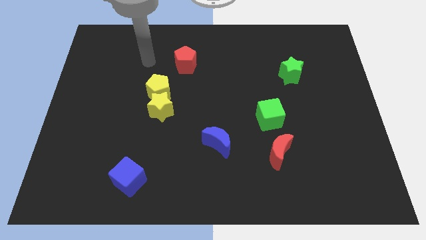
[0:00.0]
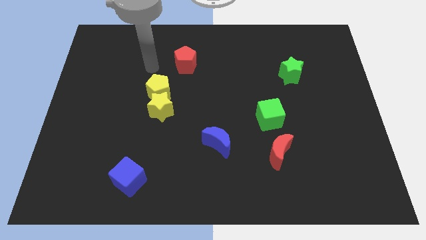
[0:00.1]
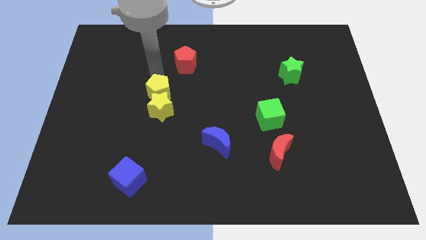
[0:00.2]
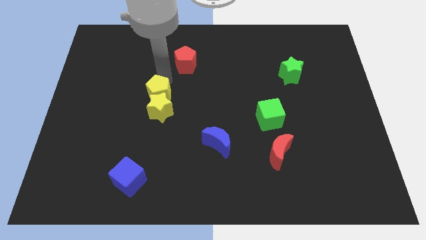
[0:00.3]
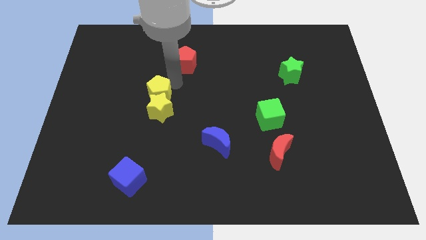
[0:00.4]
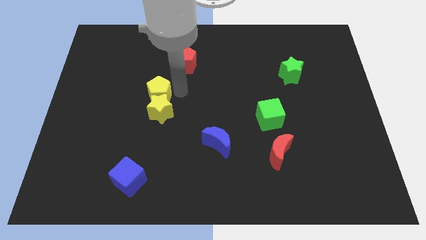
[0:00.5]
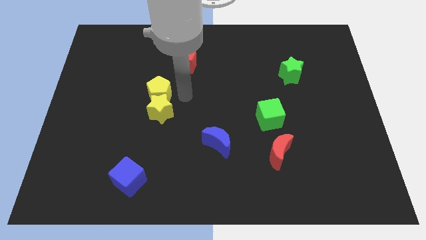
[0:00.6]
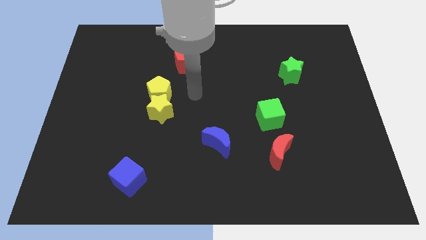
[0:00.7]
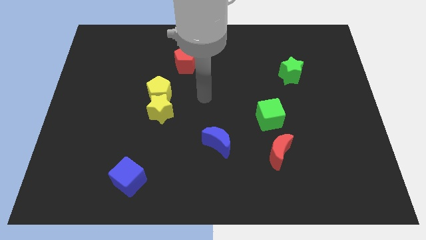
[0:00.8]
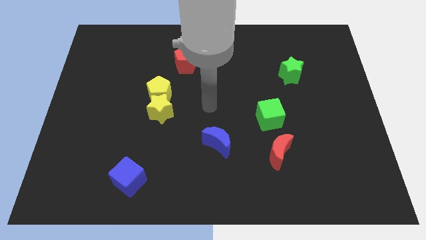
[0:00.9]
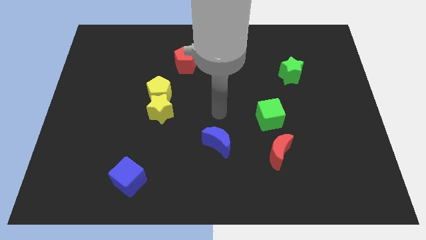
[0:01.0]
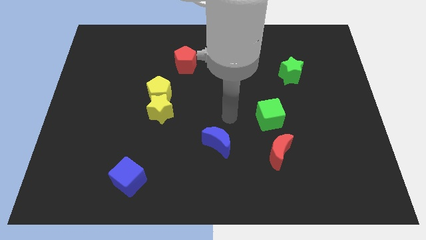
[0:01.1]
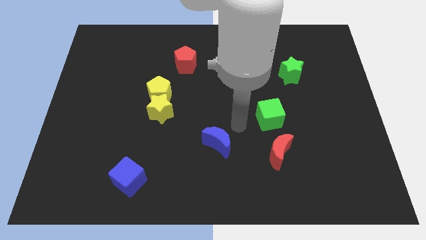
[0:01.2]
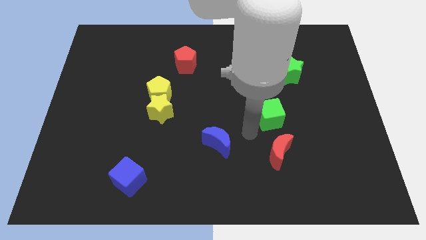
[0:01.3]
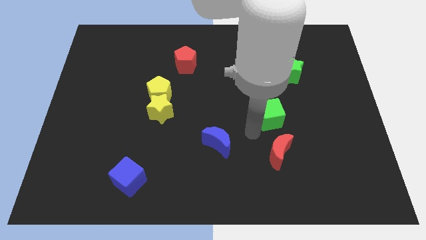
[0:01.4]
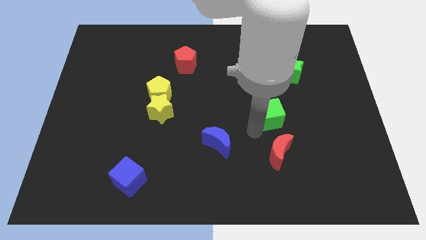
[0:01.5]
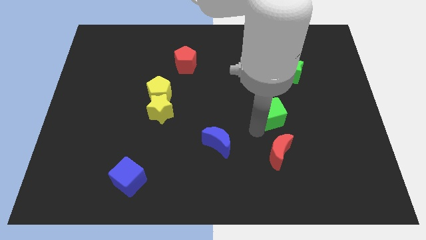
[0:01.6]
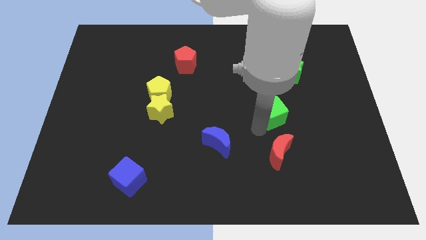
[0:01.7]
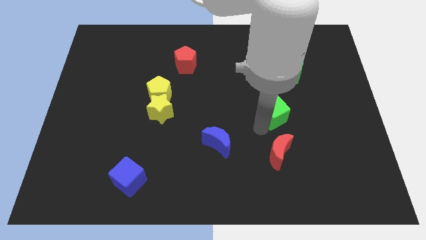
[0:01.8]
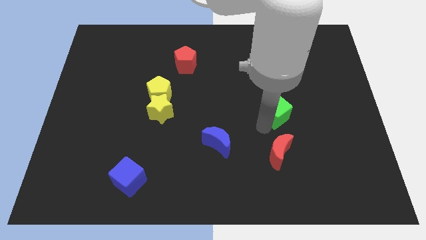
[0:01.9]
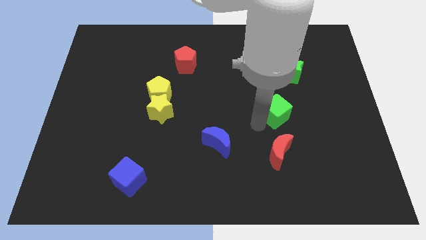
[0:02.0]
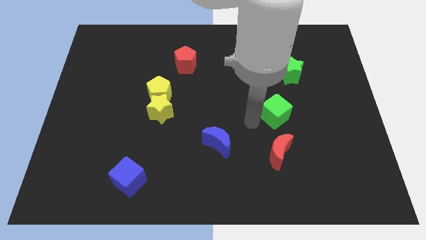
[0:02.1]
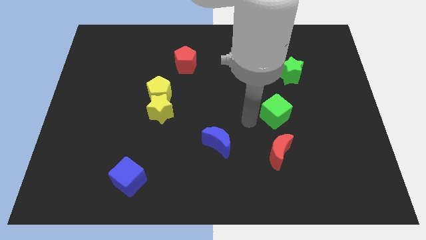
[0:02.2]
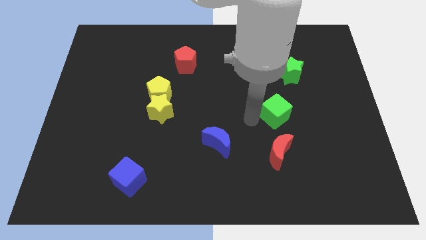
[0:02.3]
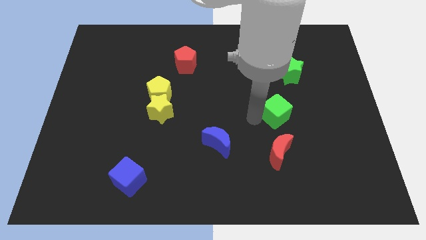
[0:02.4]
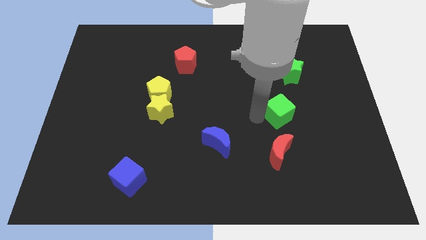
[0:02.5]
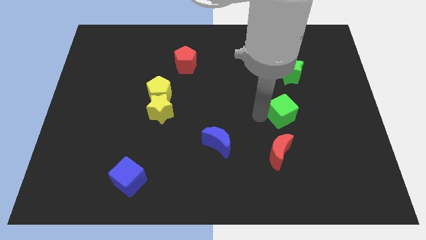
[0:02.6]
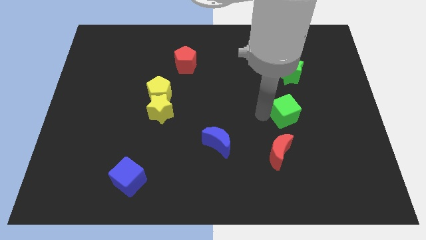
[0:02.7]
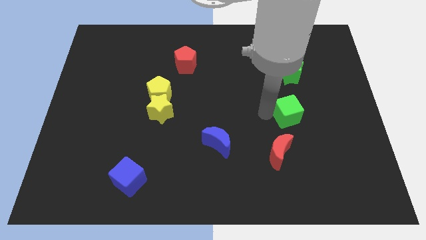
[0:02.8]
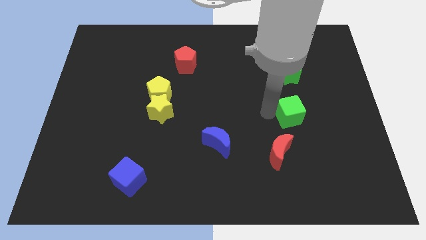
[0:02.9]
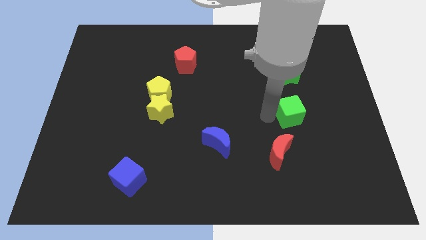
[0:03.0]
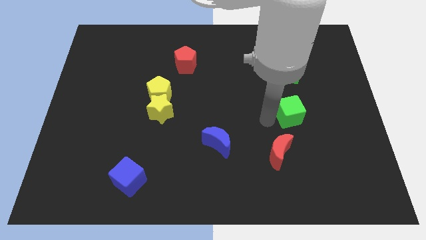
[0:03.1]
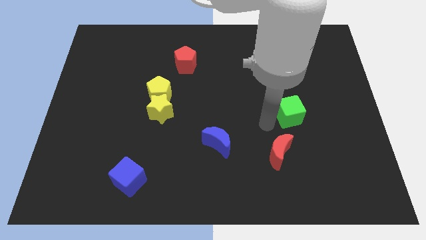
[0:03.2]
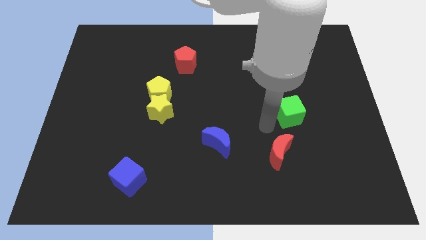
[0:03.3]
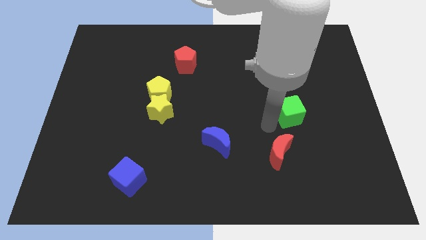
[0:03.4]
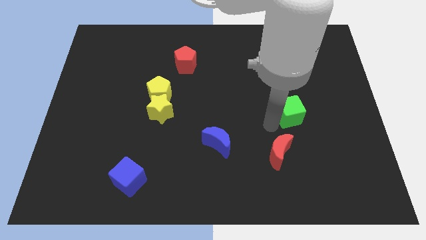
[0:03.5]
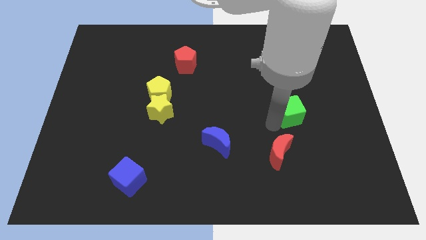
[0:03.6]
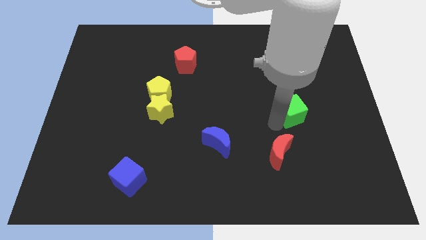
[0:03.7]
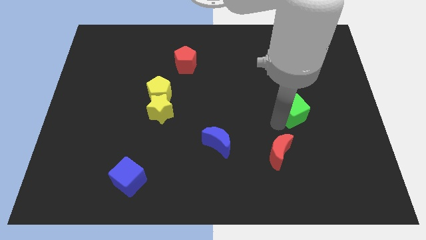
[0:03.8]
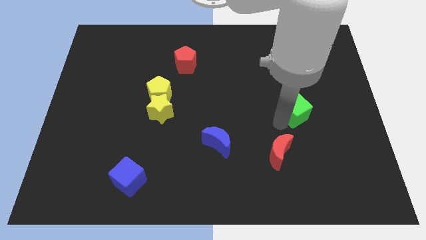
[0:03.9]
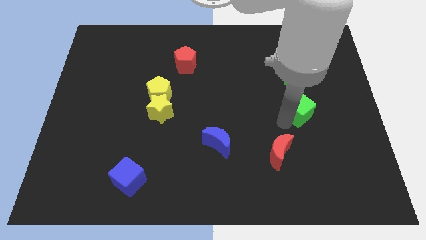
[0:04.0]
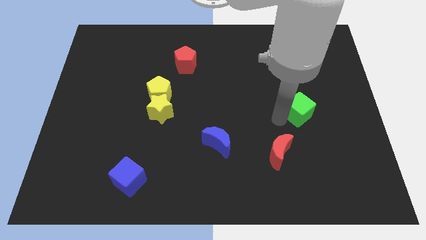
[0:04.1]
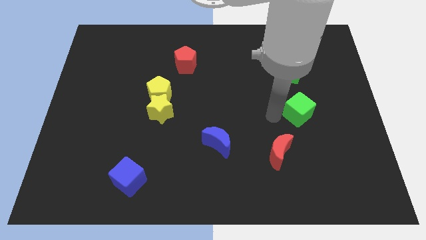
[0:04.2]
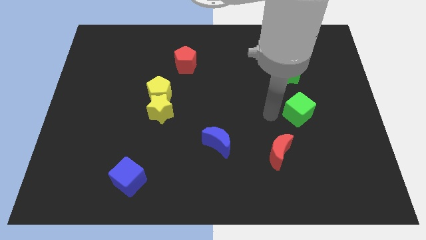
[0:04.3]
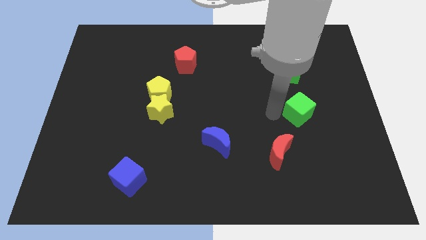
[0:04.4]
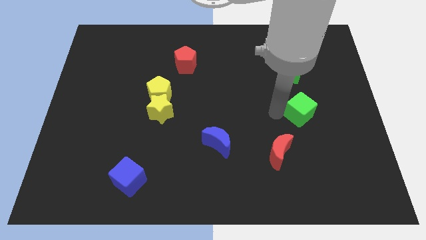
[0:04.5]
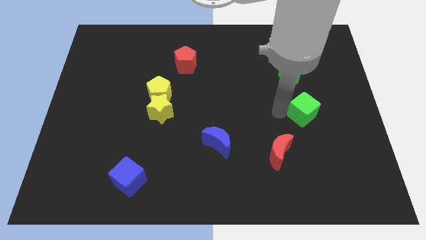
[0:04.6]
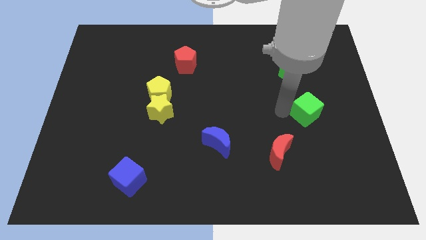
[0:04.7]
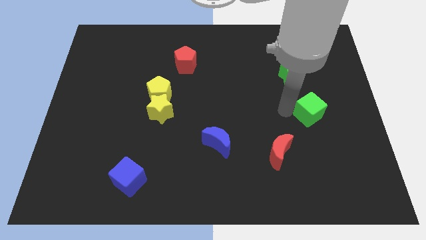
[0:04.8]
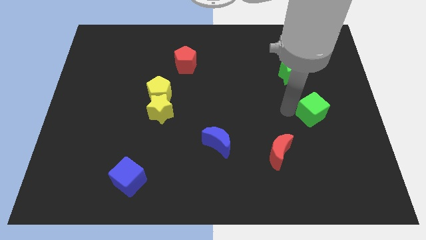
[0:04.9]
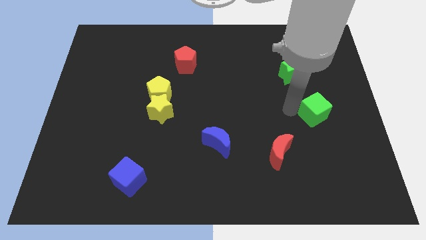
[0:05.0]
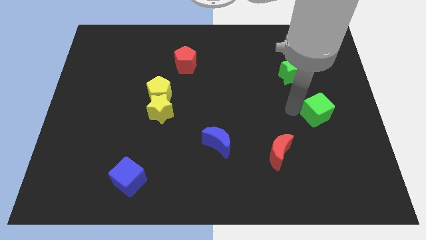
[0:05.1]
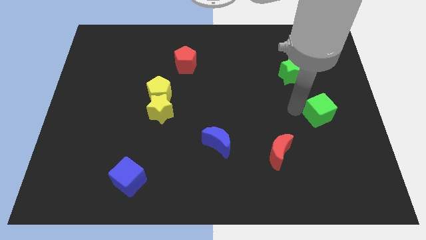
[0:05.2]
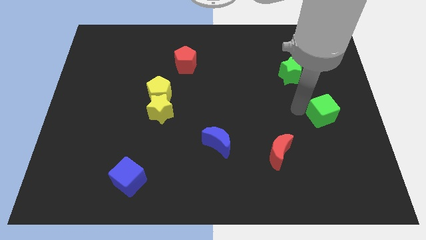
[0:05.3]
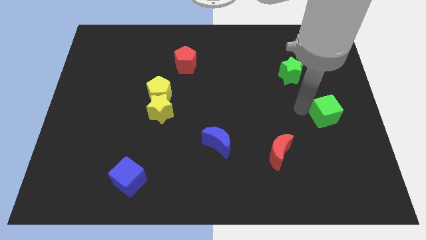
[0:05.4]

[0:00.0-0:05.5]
move the green cube to the center right

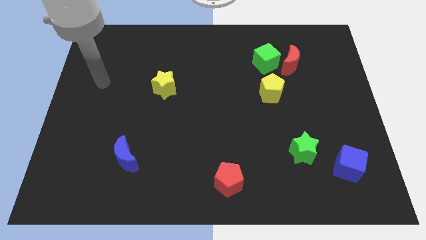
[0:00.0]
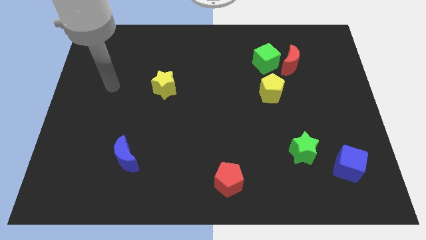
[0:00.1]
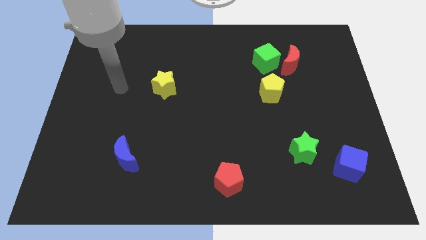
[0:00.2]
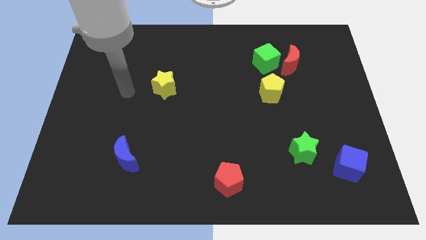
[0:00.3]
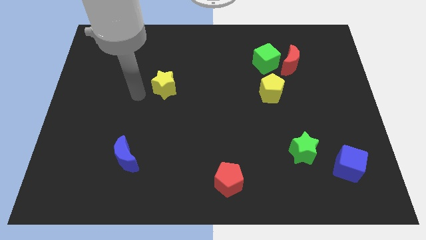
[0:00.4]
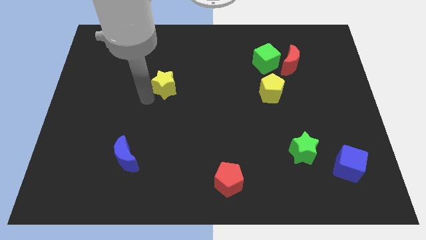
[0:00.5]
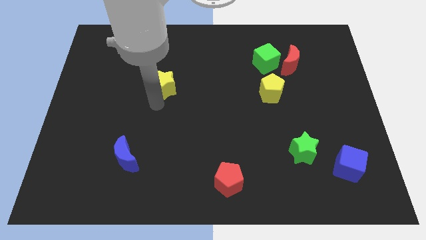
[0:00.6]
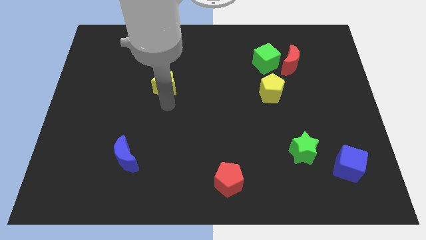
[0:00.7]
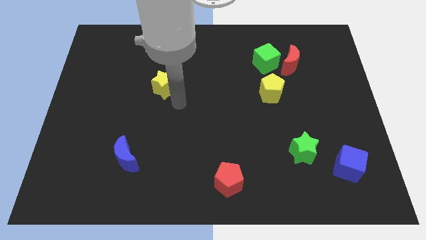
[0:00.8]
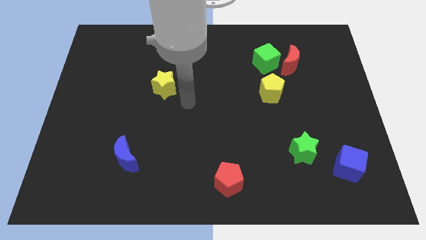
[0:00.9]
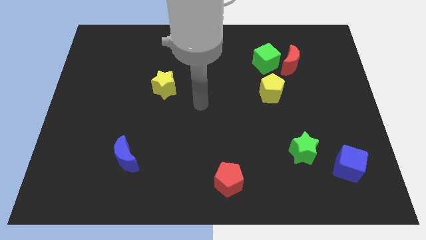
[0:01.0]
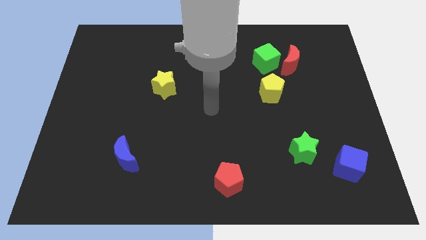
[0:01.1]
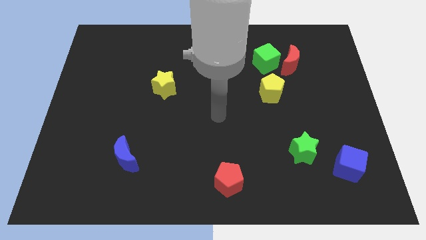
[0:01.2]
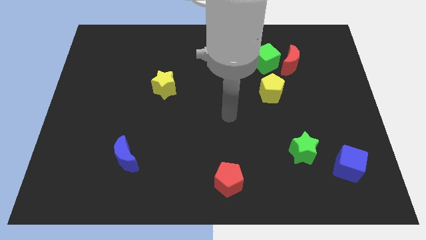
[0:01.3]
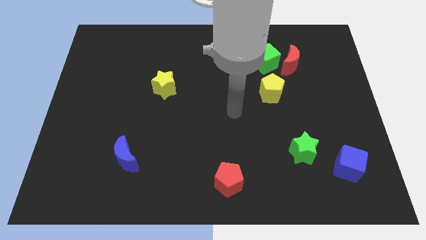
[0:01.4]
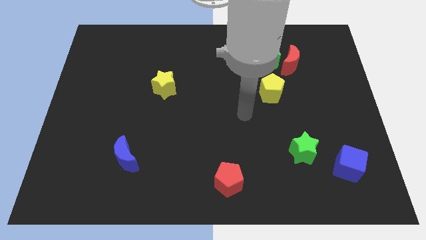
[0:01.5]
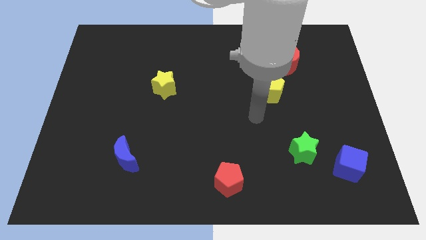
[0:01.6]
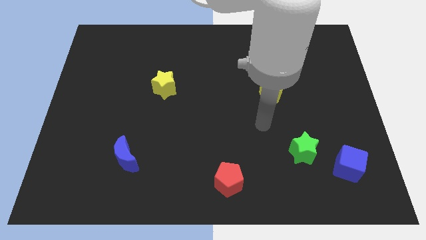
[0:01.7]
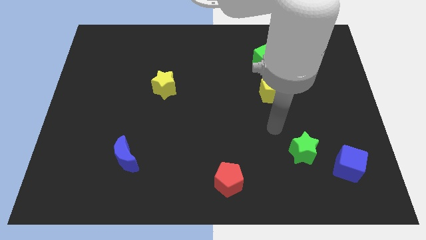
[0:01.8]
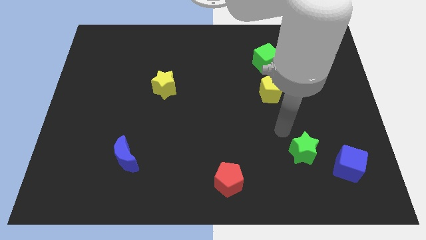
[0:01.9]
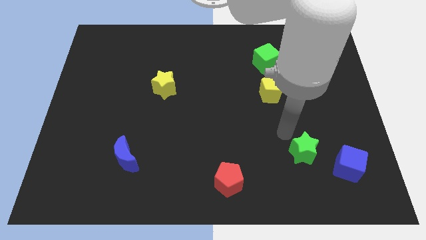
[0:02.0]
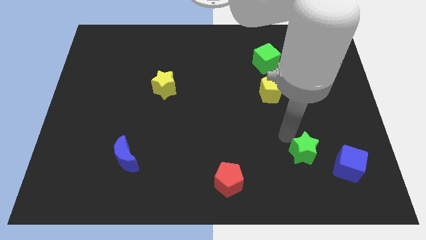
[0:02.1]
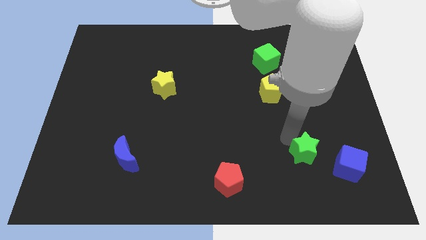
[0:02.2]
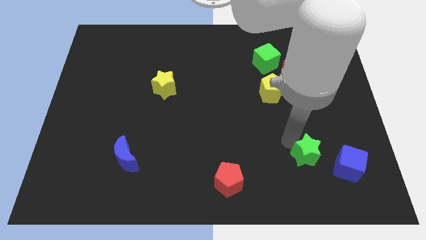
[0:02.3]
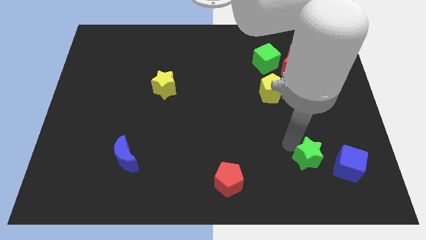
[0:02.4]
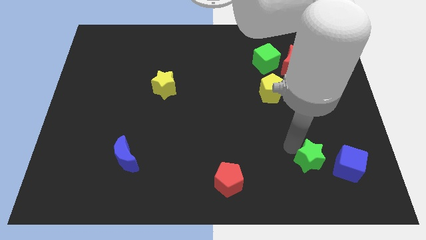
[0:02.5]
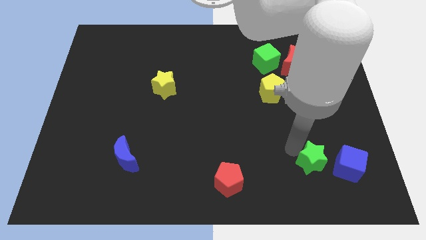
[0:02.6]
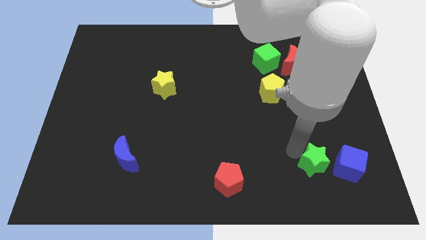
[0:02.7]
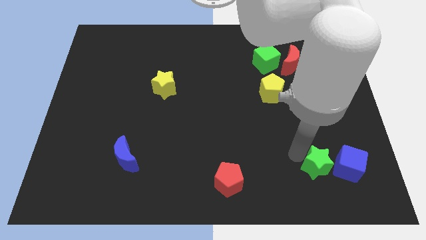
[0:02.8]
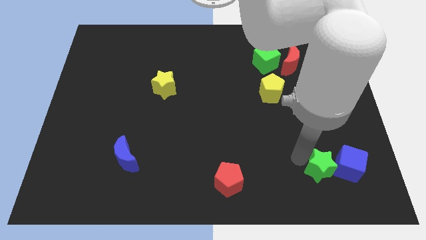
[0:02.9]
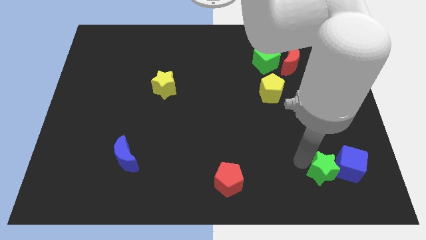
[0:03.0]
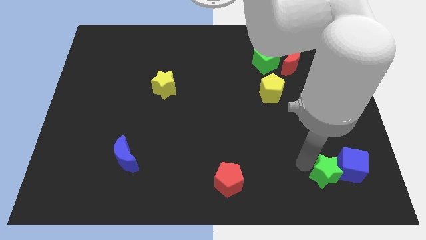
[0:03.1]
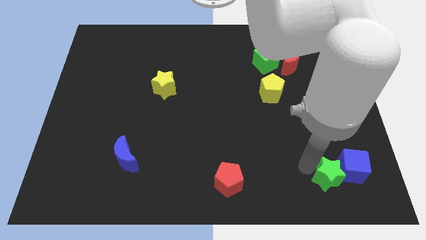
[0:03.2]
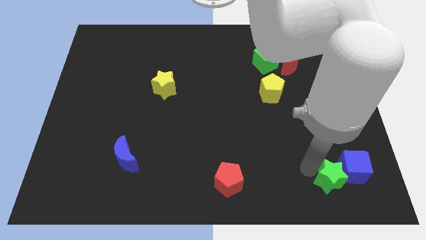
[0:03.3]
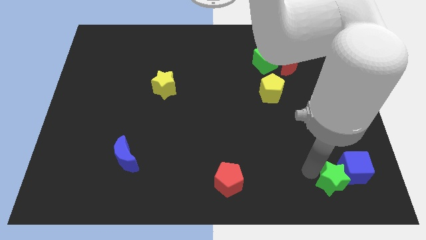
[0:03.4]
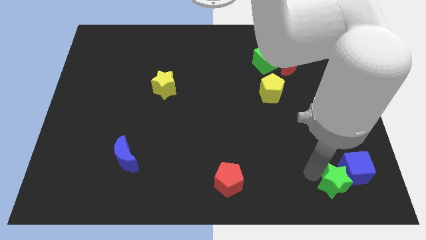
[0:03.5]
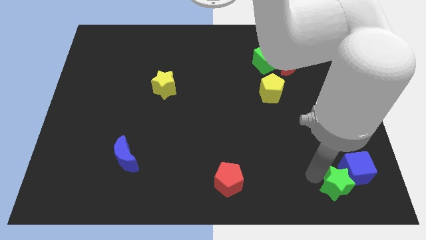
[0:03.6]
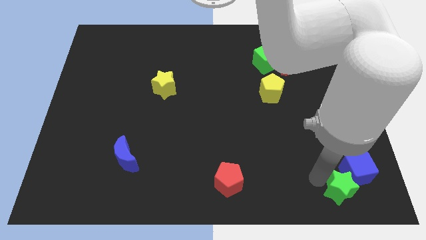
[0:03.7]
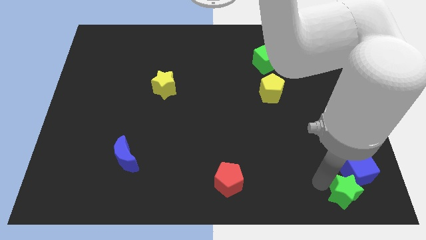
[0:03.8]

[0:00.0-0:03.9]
put the green star to the bottom right of the board
